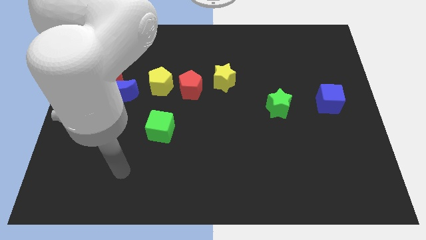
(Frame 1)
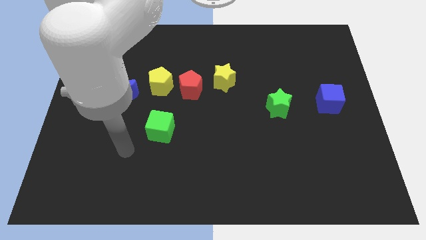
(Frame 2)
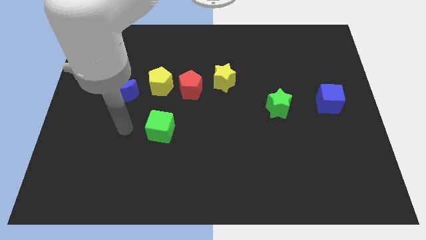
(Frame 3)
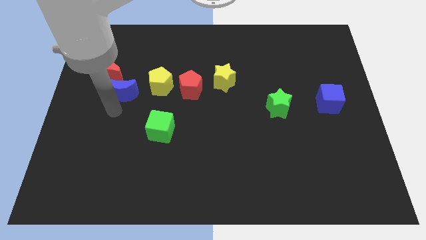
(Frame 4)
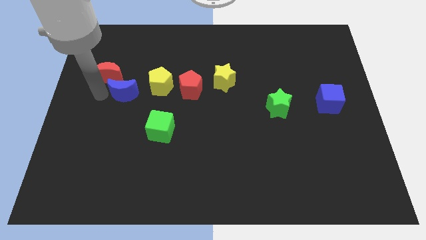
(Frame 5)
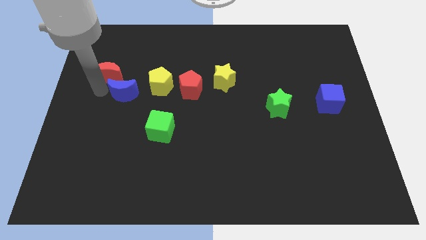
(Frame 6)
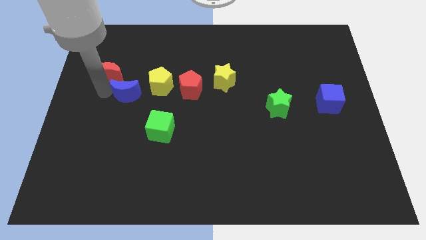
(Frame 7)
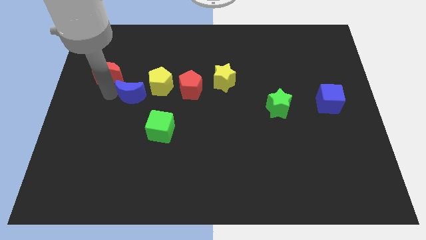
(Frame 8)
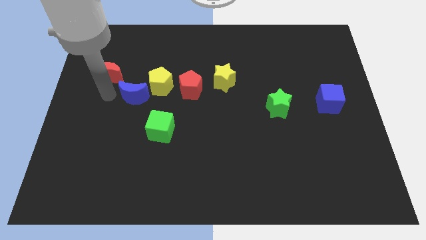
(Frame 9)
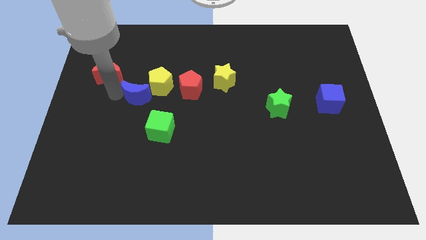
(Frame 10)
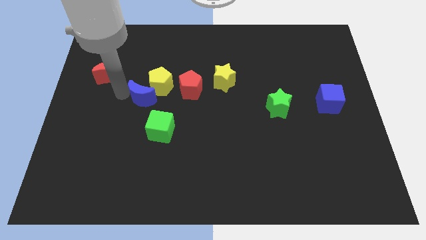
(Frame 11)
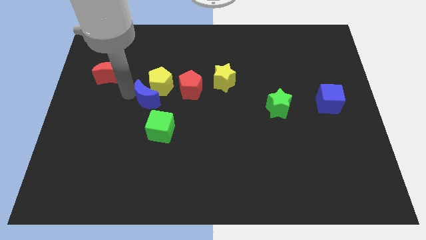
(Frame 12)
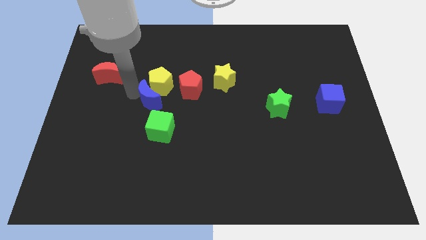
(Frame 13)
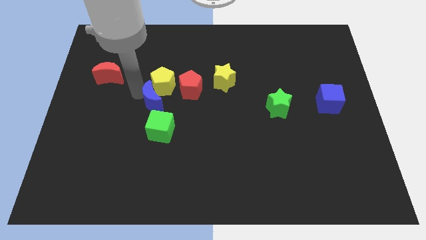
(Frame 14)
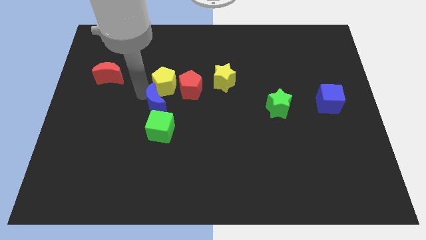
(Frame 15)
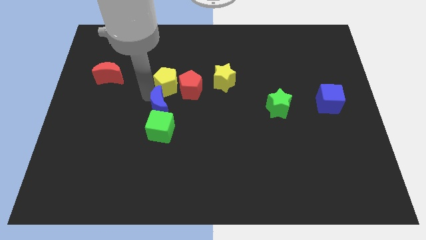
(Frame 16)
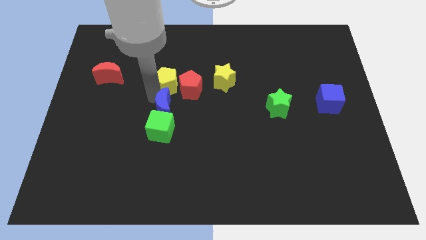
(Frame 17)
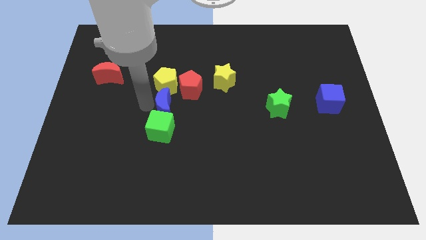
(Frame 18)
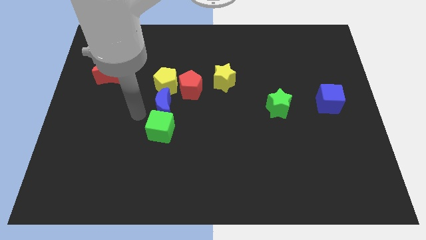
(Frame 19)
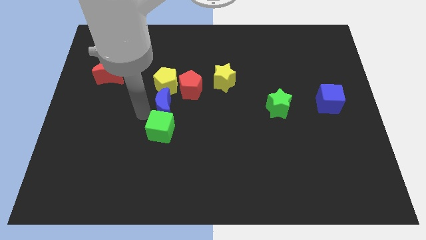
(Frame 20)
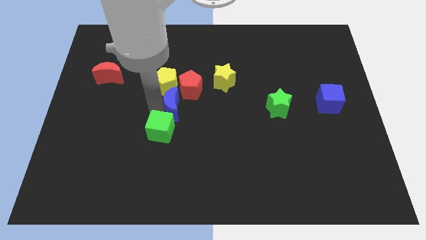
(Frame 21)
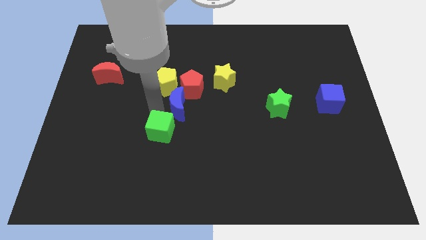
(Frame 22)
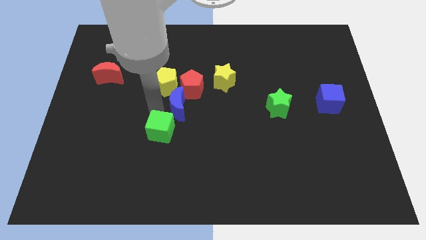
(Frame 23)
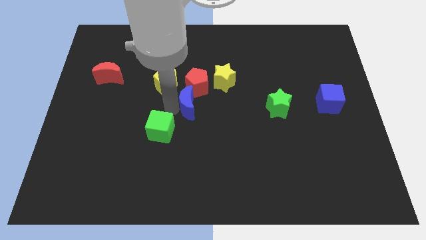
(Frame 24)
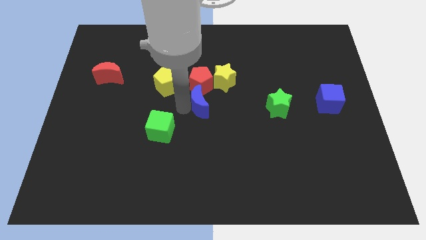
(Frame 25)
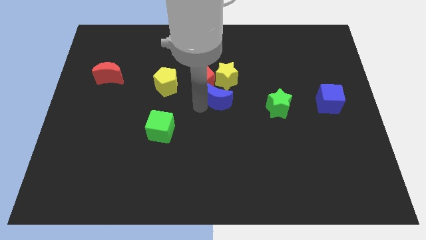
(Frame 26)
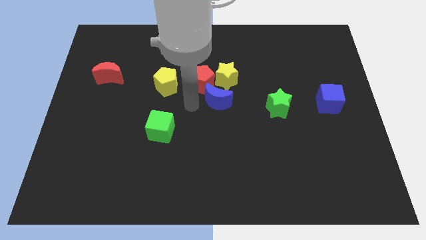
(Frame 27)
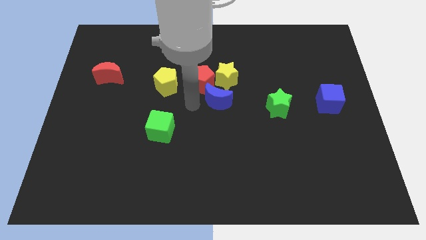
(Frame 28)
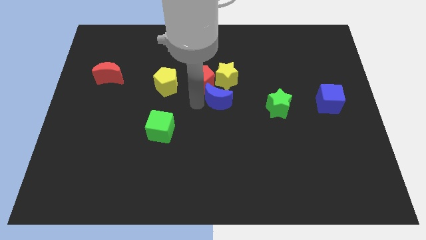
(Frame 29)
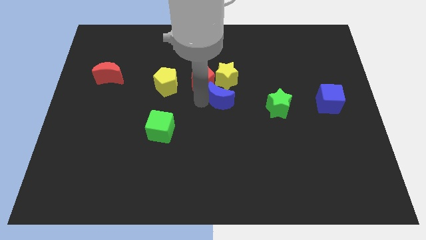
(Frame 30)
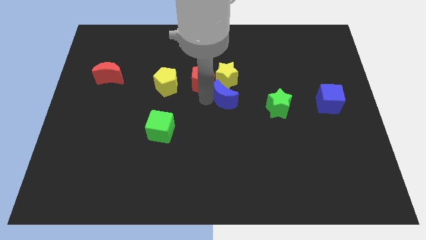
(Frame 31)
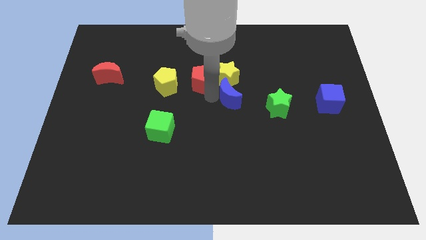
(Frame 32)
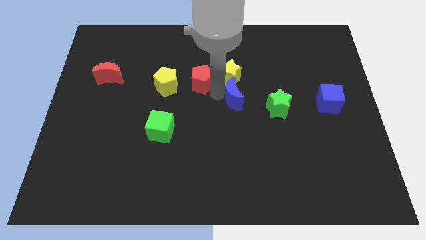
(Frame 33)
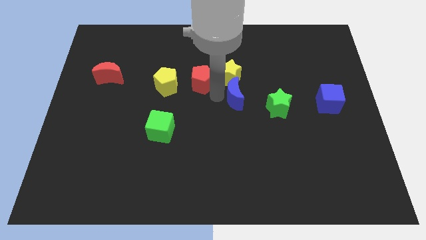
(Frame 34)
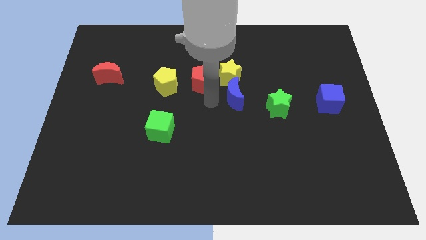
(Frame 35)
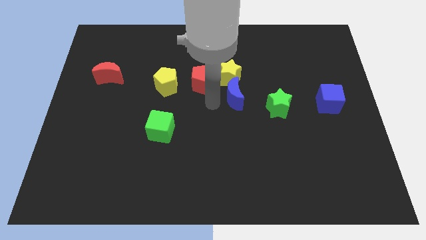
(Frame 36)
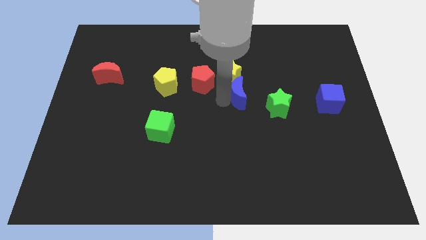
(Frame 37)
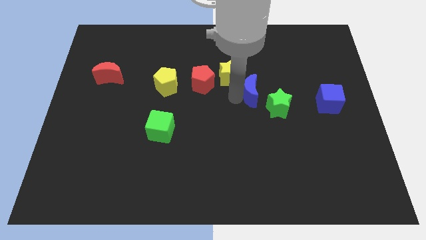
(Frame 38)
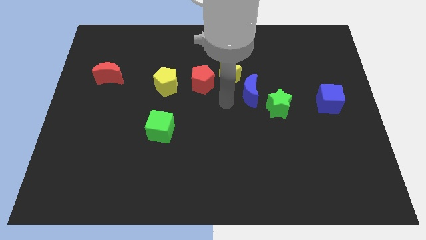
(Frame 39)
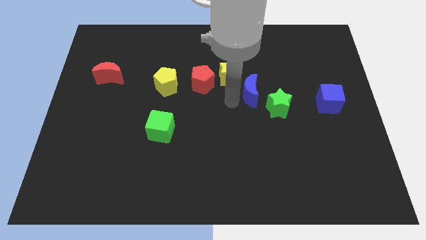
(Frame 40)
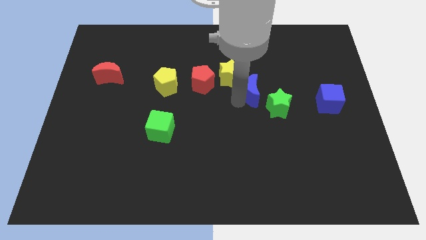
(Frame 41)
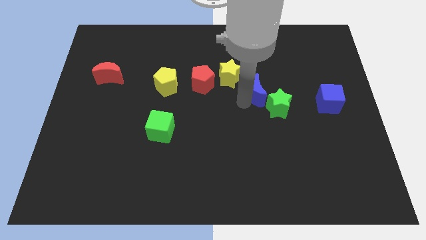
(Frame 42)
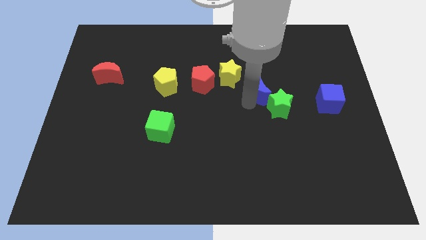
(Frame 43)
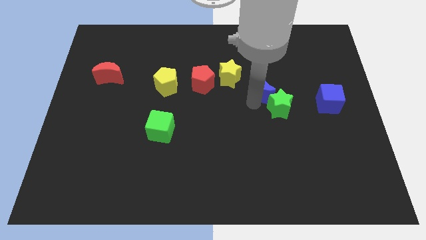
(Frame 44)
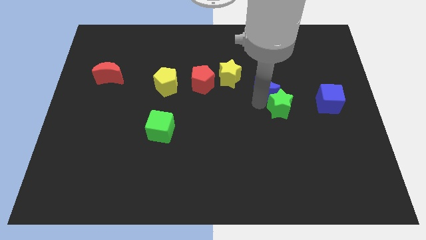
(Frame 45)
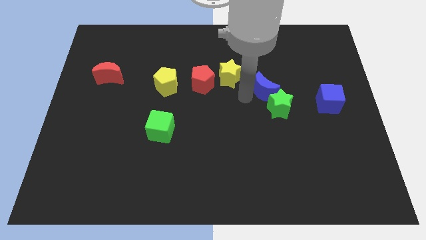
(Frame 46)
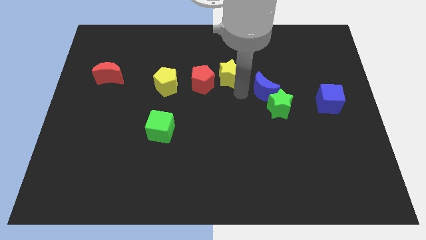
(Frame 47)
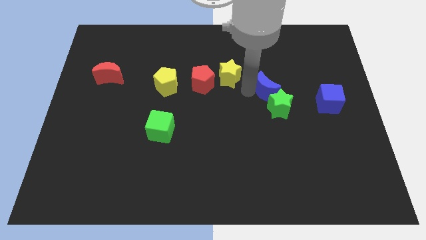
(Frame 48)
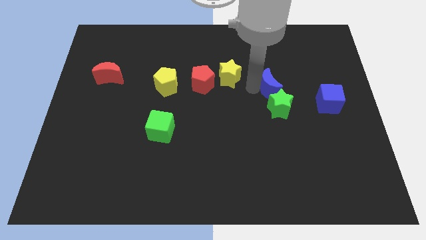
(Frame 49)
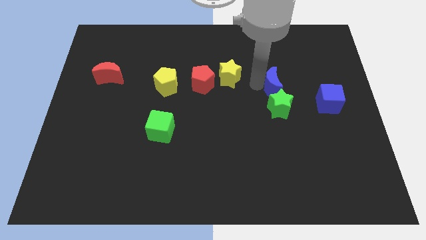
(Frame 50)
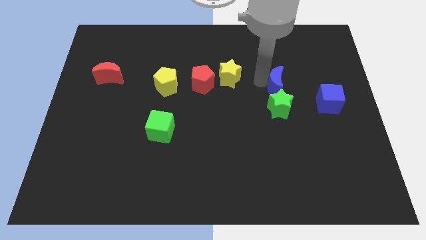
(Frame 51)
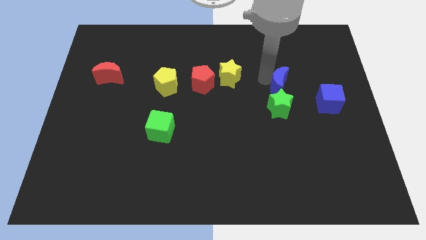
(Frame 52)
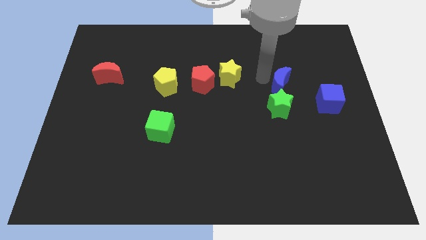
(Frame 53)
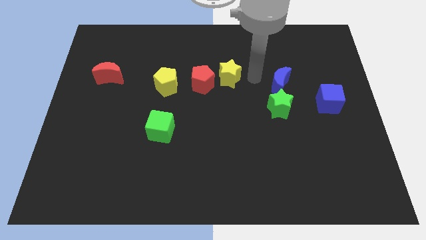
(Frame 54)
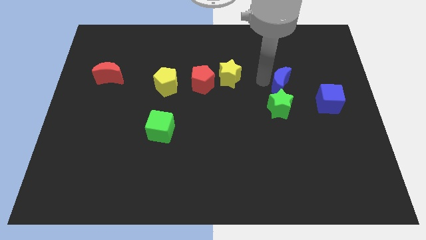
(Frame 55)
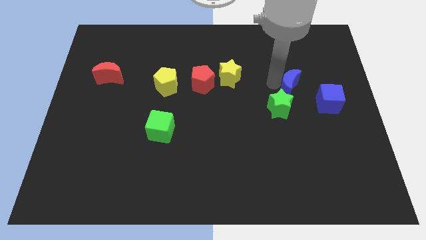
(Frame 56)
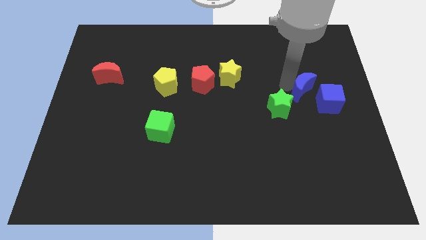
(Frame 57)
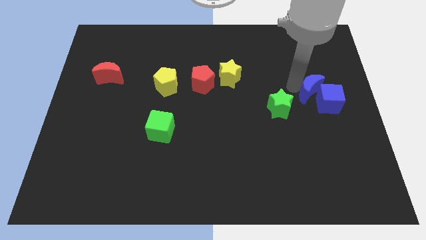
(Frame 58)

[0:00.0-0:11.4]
move the blue moon close to the blue cube

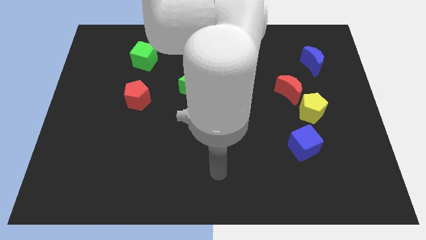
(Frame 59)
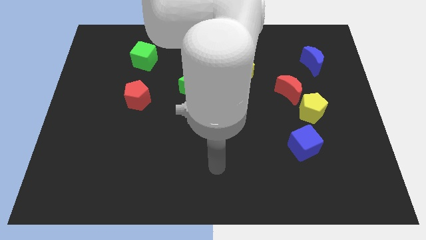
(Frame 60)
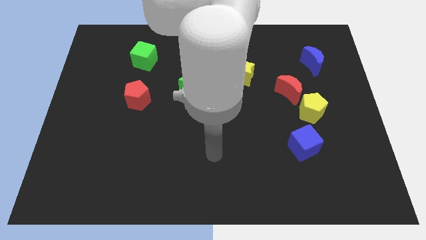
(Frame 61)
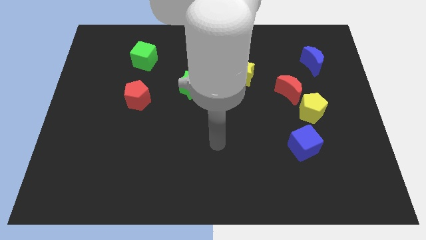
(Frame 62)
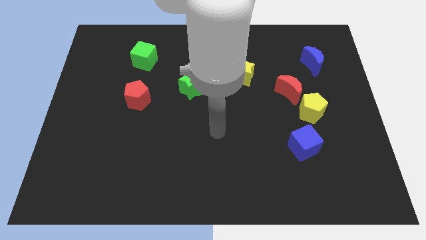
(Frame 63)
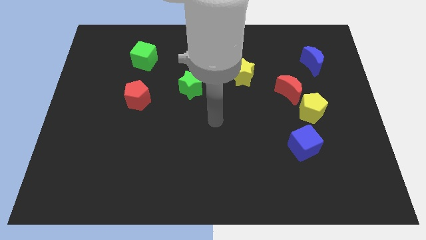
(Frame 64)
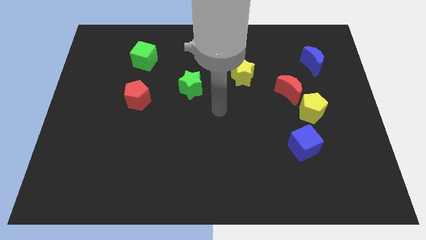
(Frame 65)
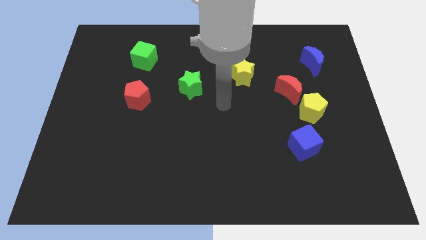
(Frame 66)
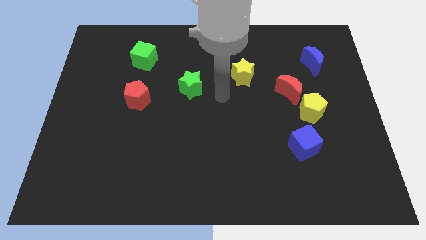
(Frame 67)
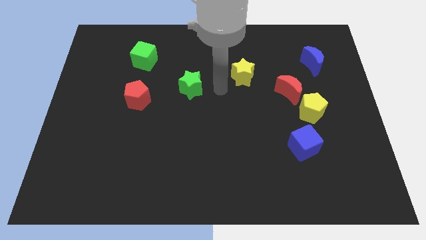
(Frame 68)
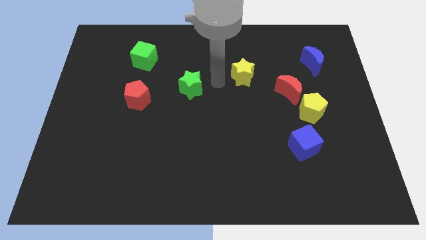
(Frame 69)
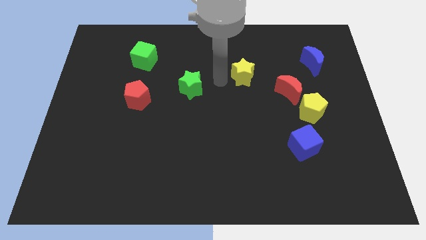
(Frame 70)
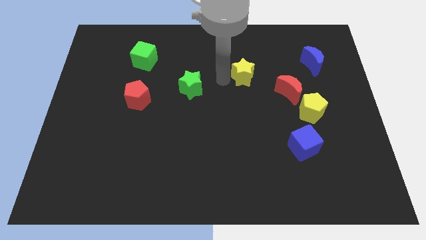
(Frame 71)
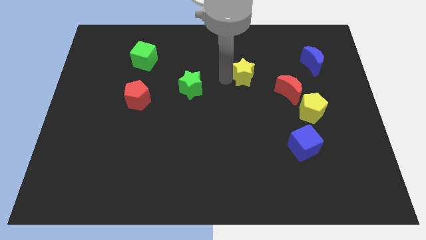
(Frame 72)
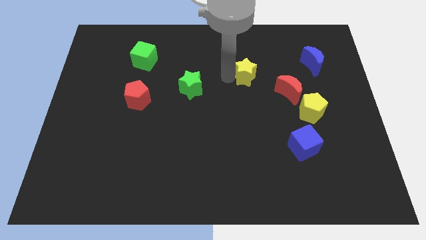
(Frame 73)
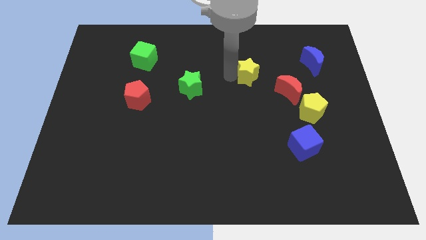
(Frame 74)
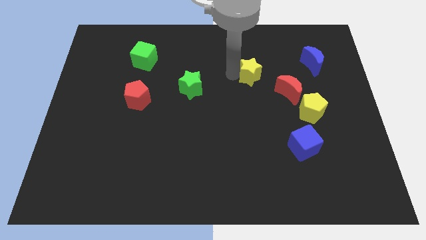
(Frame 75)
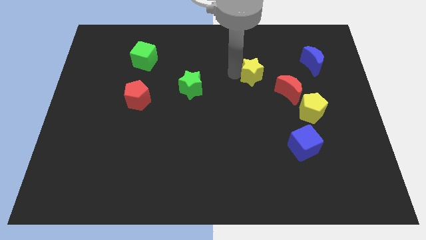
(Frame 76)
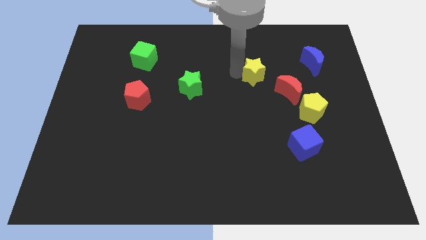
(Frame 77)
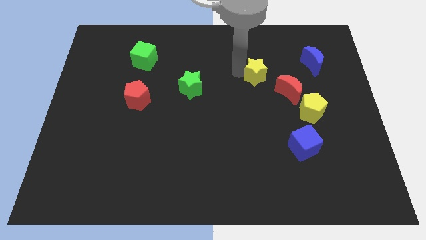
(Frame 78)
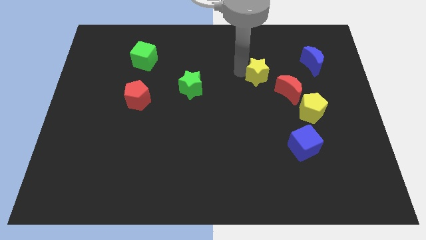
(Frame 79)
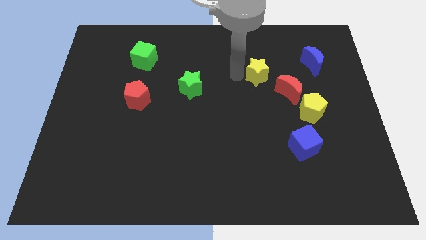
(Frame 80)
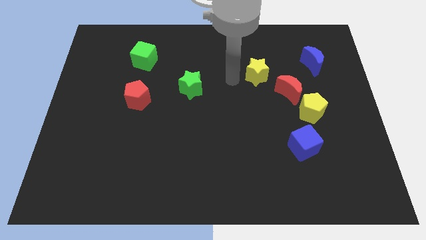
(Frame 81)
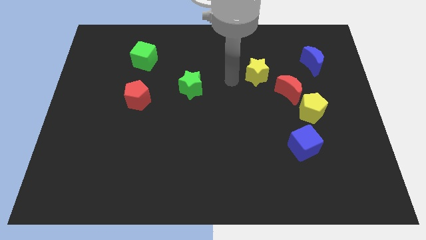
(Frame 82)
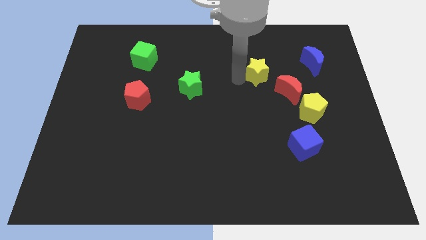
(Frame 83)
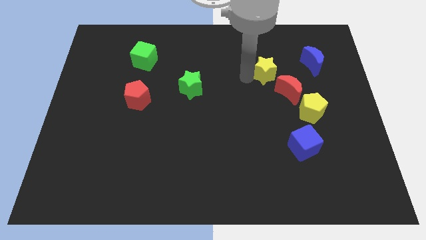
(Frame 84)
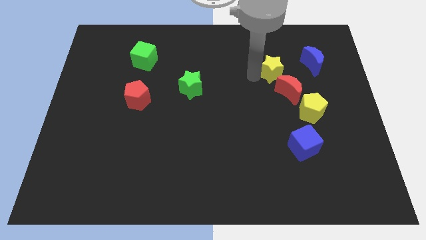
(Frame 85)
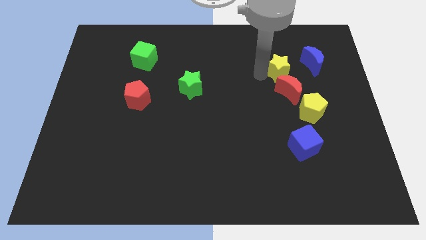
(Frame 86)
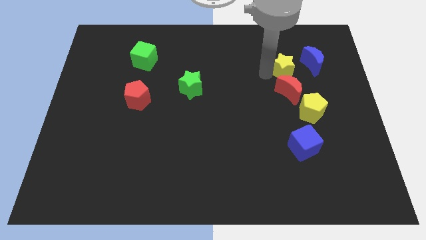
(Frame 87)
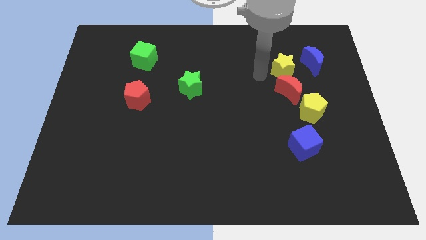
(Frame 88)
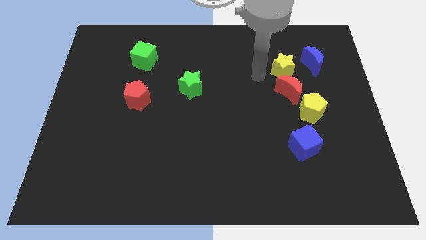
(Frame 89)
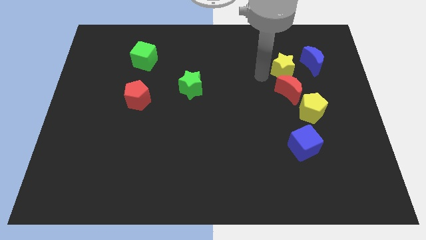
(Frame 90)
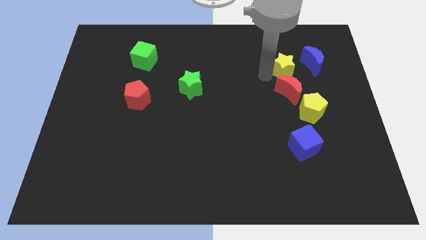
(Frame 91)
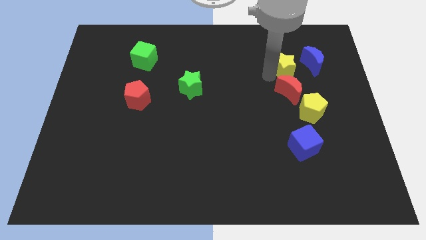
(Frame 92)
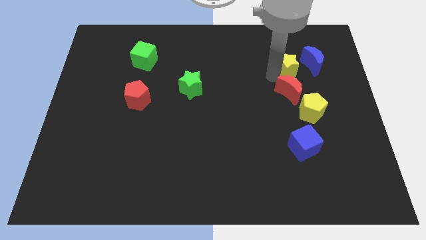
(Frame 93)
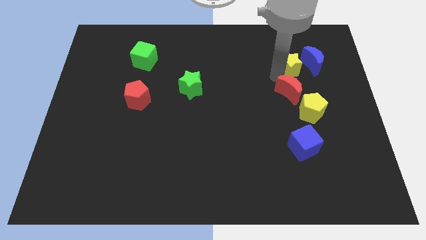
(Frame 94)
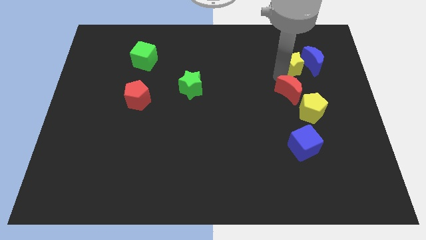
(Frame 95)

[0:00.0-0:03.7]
push the yellow star to the blue moon
